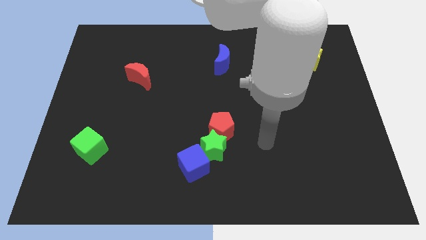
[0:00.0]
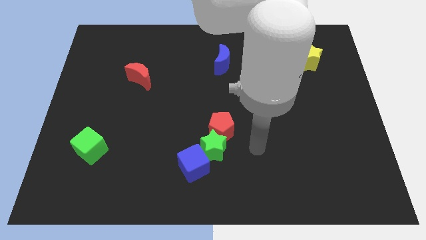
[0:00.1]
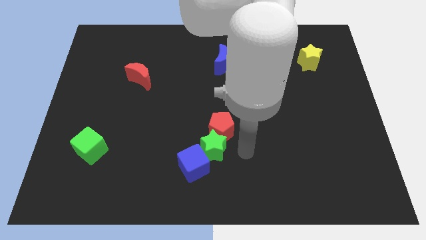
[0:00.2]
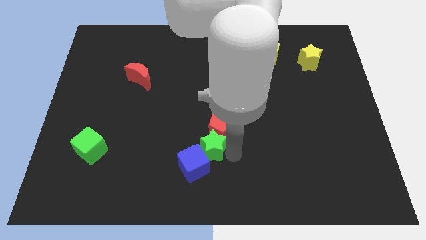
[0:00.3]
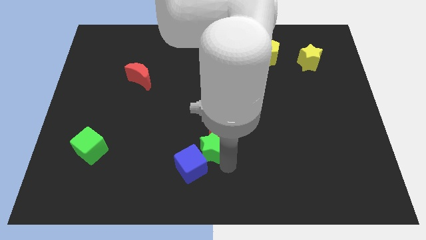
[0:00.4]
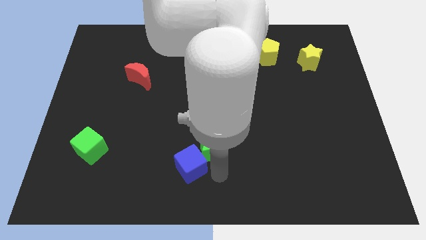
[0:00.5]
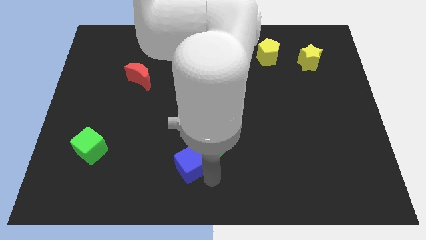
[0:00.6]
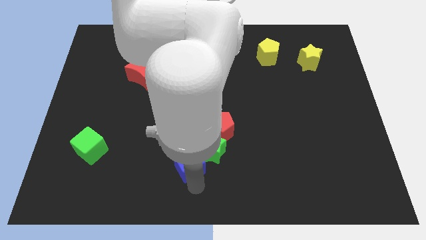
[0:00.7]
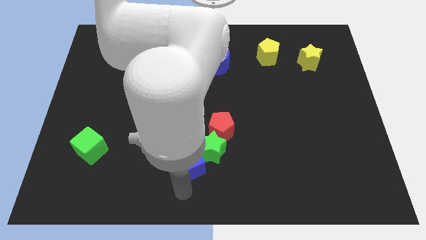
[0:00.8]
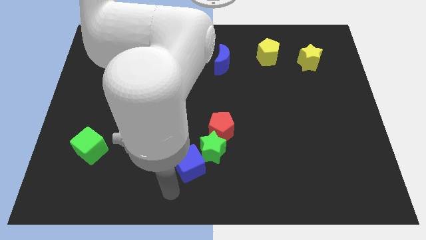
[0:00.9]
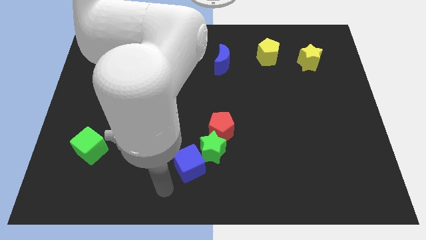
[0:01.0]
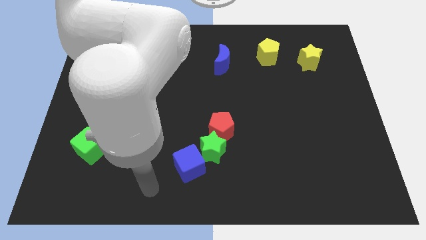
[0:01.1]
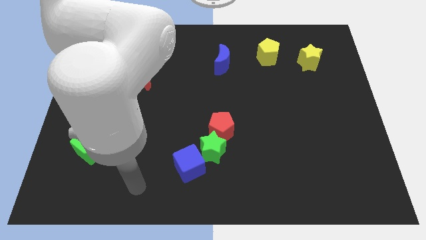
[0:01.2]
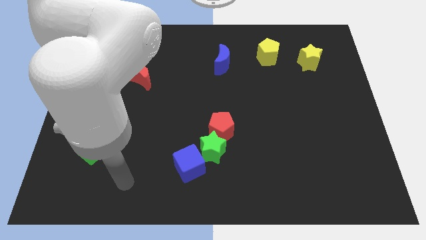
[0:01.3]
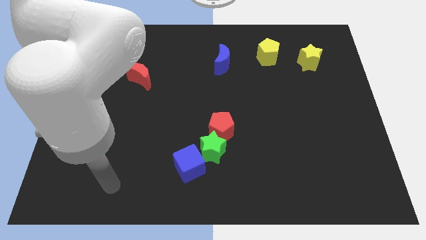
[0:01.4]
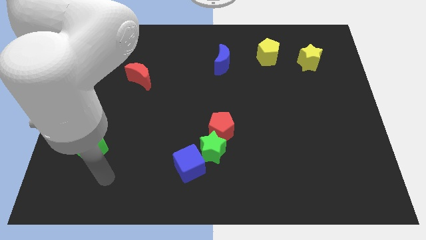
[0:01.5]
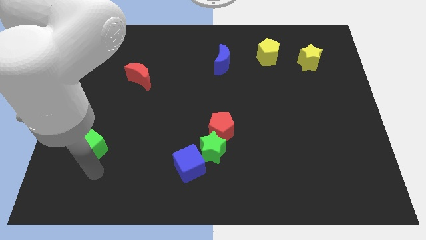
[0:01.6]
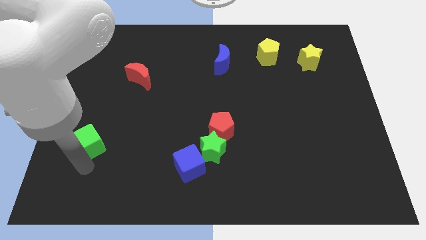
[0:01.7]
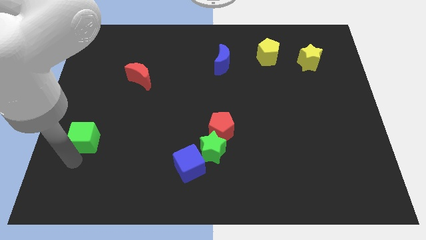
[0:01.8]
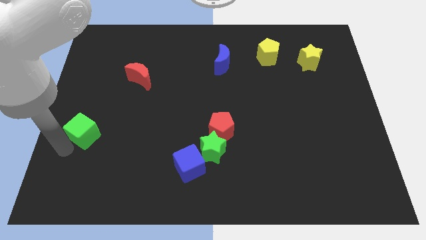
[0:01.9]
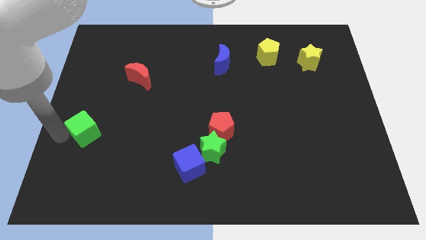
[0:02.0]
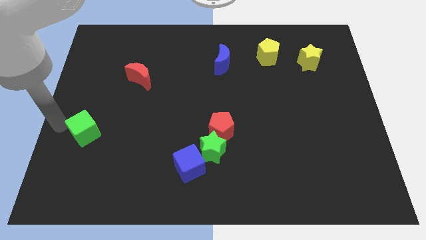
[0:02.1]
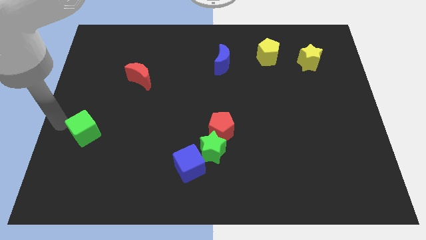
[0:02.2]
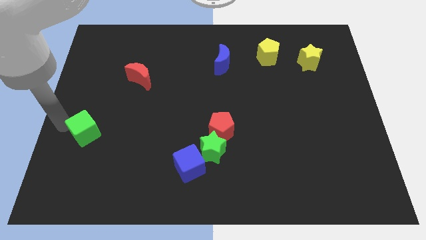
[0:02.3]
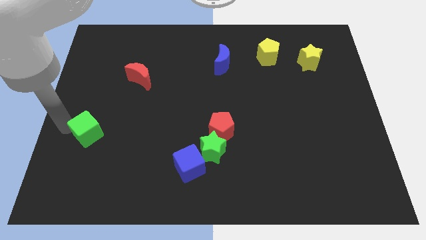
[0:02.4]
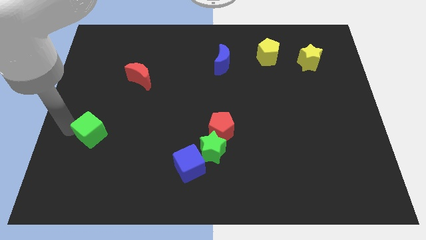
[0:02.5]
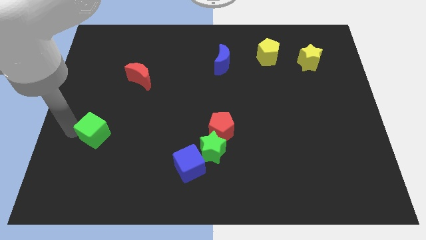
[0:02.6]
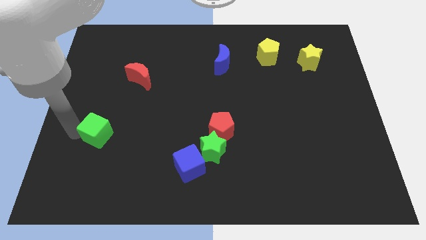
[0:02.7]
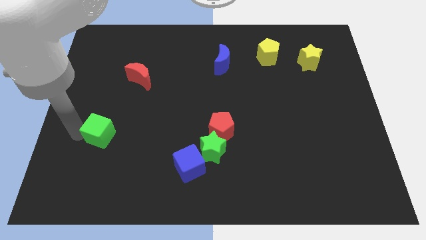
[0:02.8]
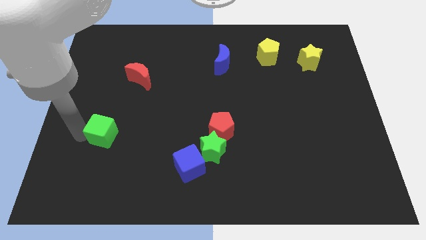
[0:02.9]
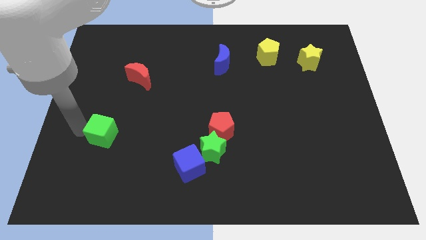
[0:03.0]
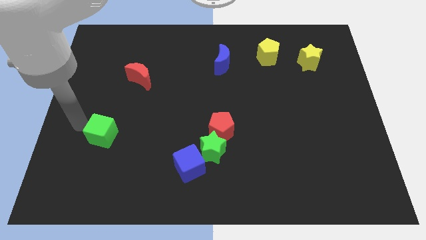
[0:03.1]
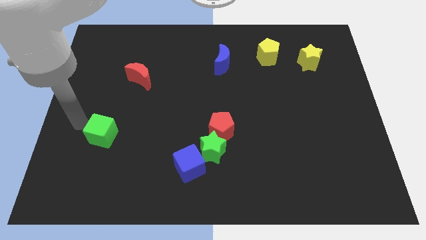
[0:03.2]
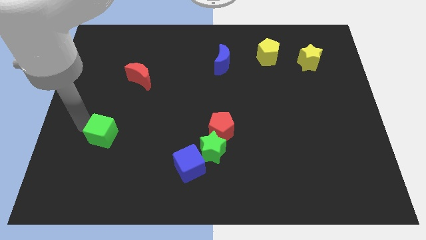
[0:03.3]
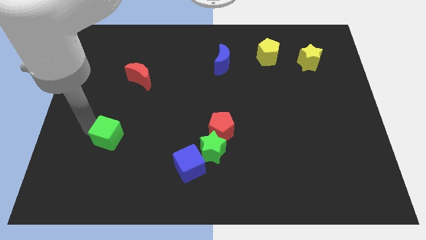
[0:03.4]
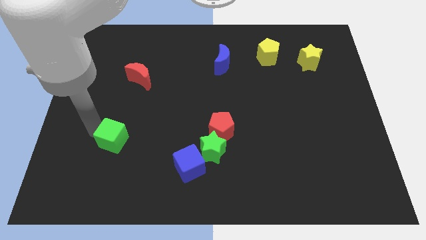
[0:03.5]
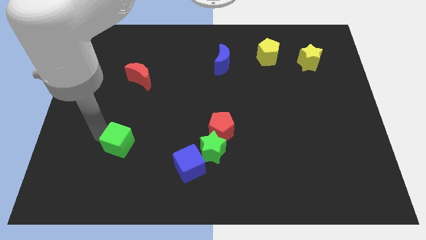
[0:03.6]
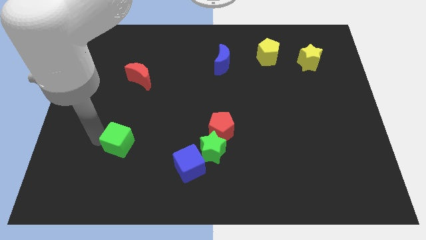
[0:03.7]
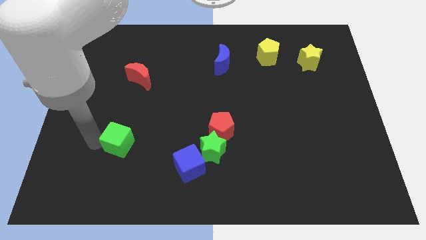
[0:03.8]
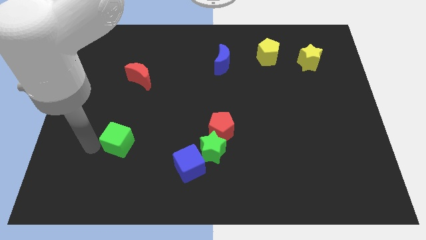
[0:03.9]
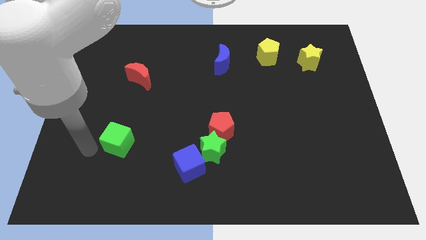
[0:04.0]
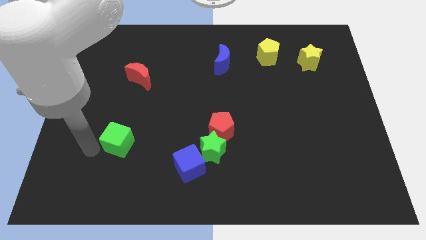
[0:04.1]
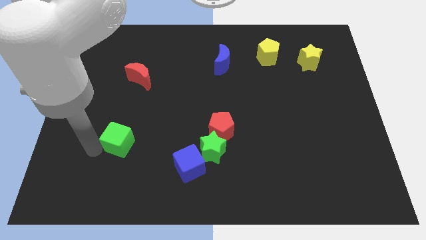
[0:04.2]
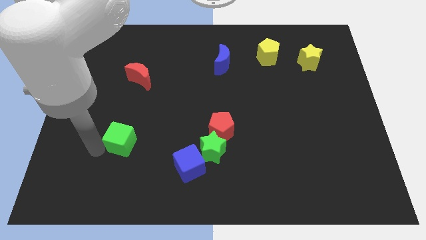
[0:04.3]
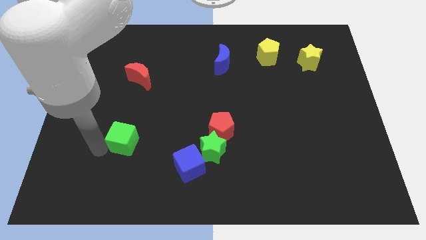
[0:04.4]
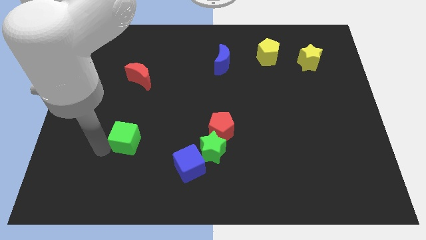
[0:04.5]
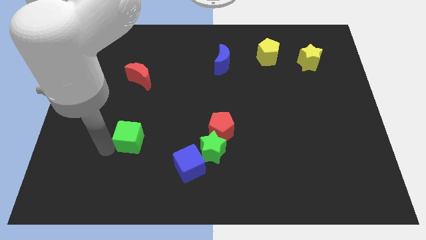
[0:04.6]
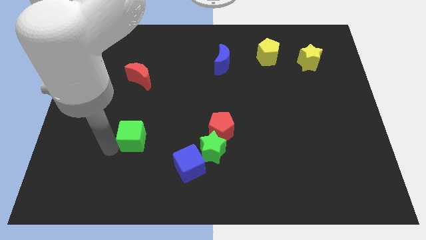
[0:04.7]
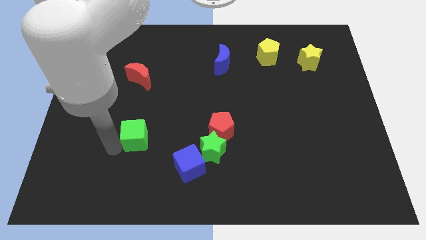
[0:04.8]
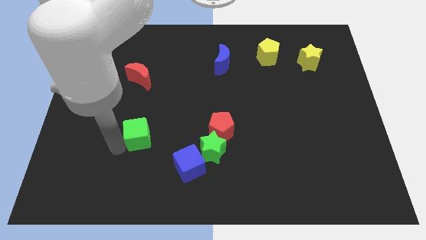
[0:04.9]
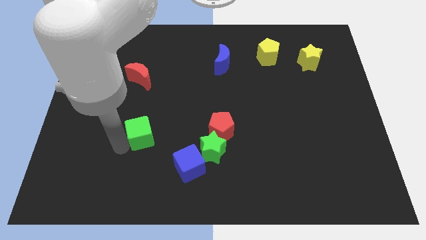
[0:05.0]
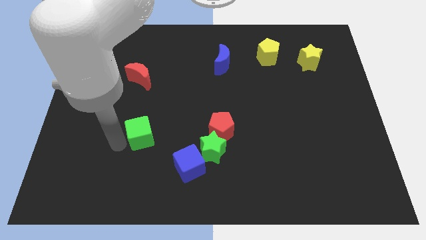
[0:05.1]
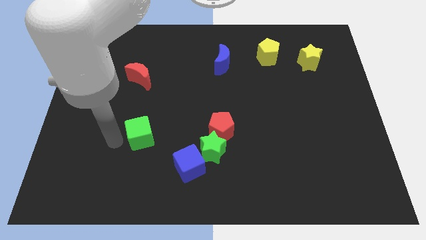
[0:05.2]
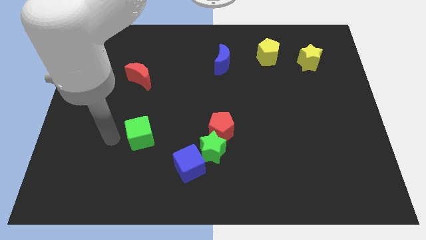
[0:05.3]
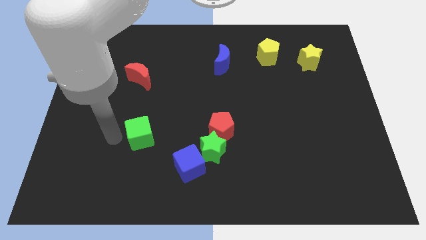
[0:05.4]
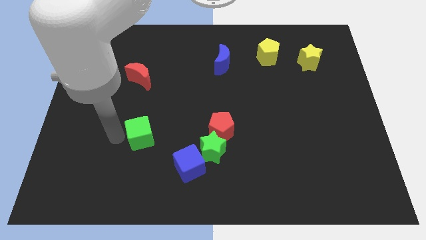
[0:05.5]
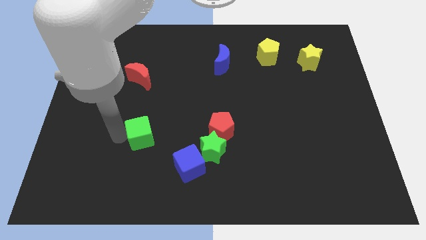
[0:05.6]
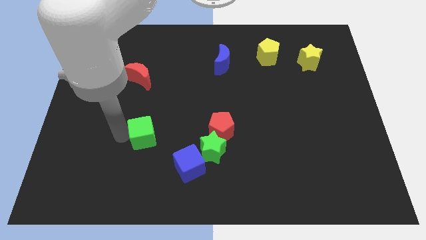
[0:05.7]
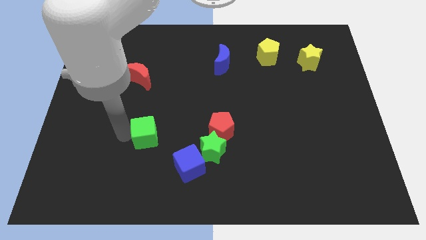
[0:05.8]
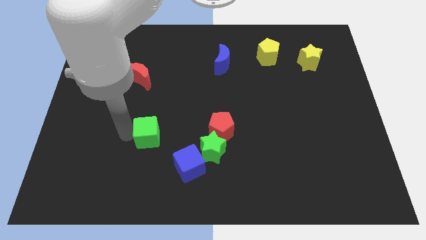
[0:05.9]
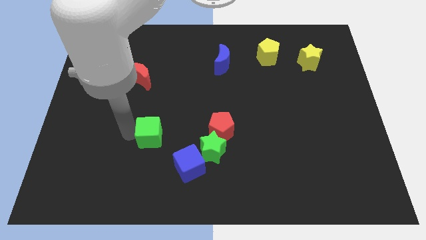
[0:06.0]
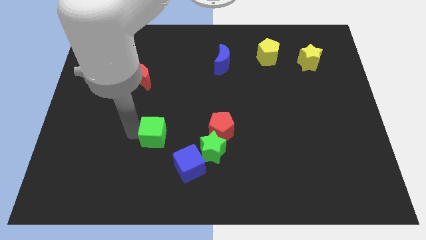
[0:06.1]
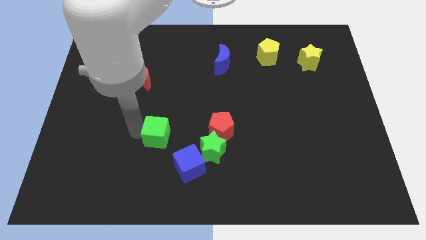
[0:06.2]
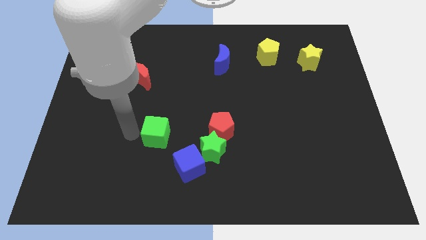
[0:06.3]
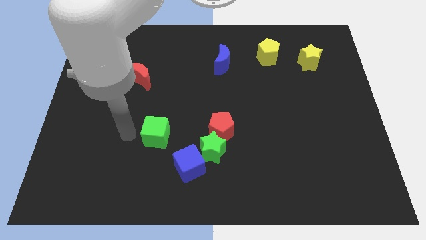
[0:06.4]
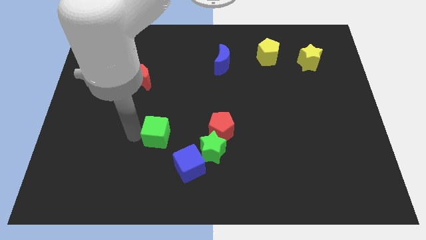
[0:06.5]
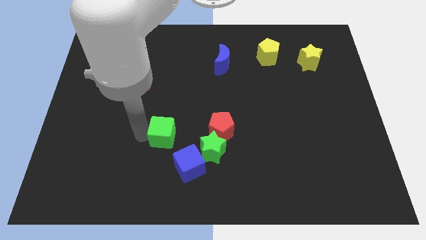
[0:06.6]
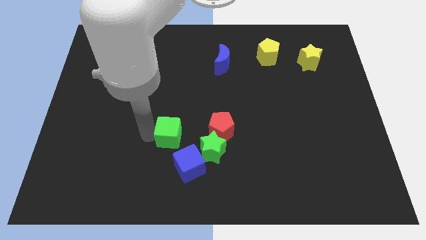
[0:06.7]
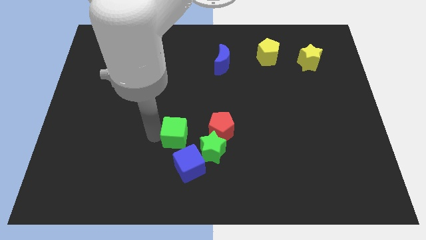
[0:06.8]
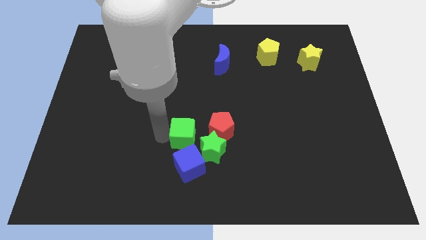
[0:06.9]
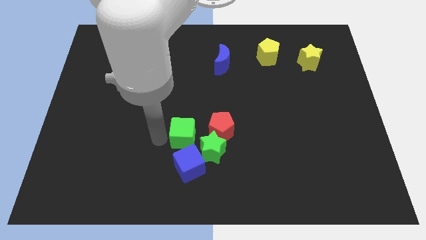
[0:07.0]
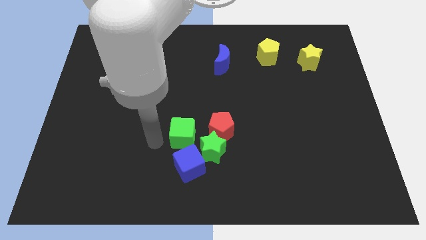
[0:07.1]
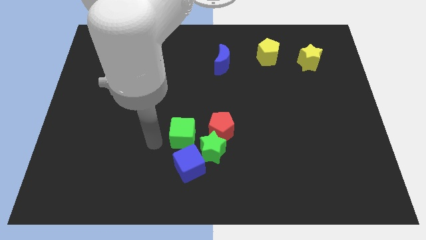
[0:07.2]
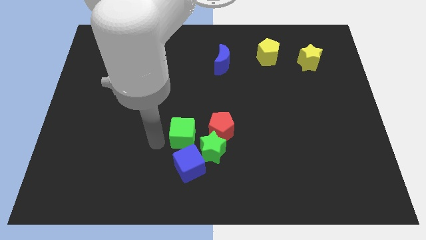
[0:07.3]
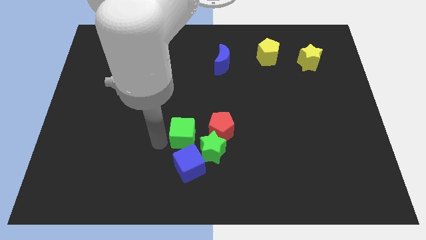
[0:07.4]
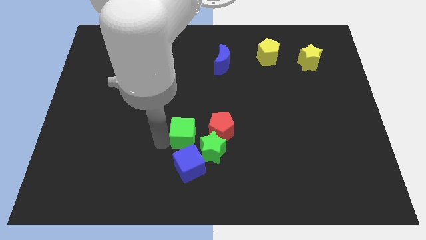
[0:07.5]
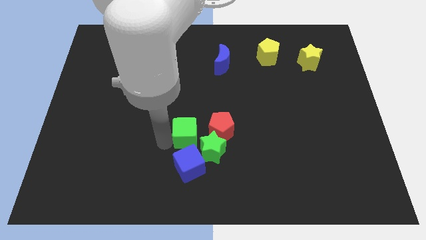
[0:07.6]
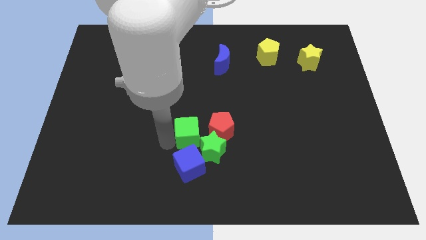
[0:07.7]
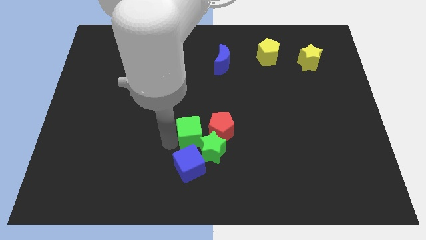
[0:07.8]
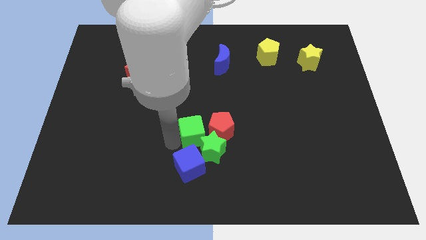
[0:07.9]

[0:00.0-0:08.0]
move the green cube next to the red pentagon
